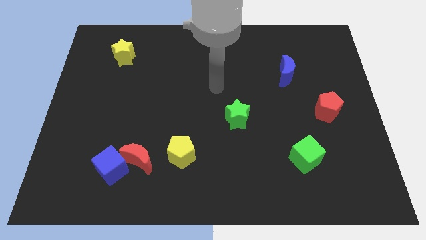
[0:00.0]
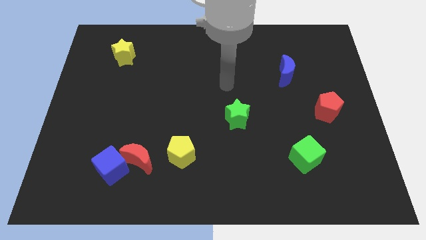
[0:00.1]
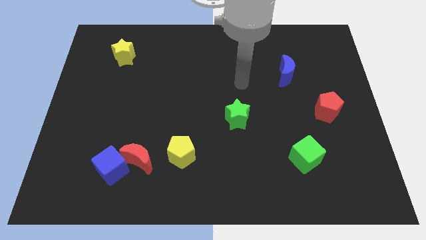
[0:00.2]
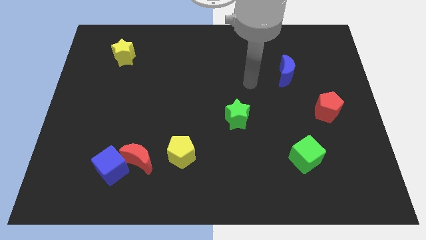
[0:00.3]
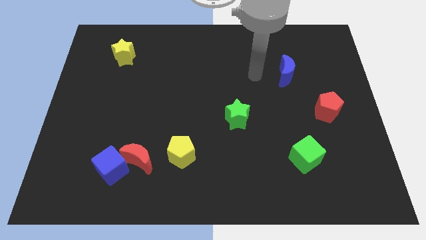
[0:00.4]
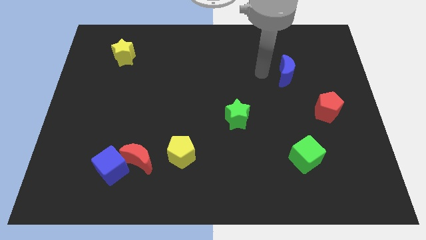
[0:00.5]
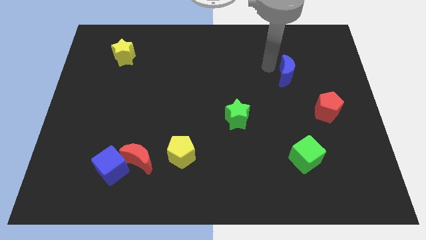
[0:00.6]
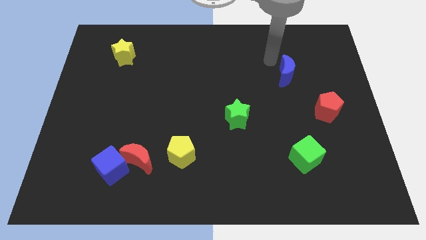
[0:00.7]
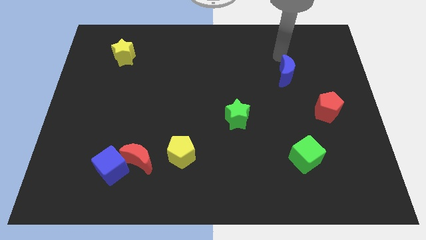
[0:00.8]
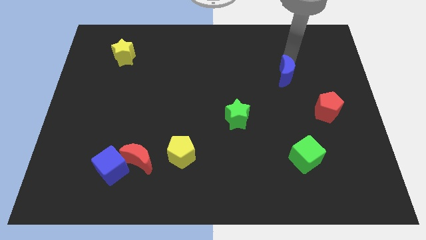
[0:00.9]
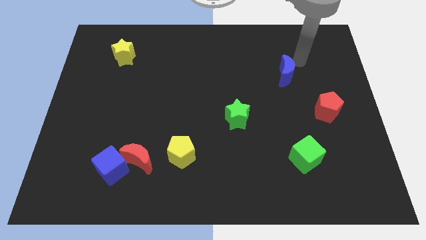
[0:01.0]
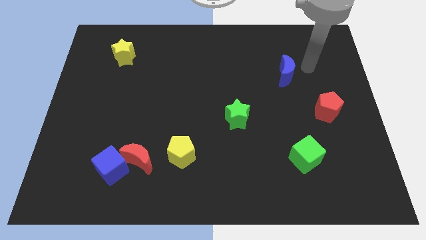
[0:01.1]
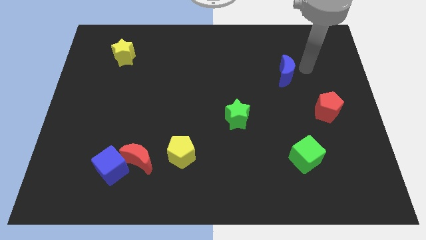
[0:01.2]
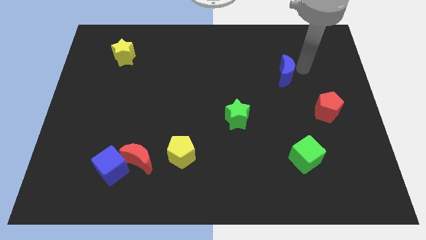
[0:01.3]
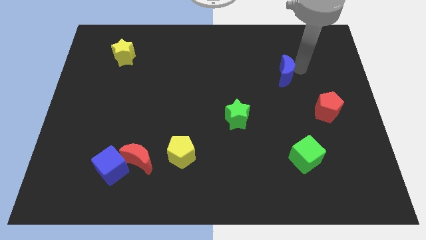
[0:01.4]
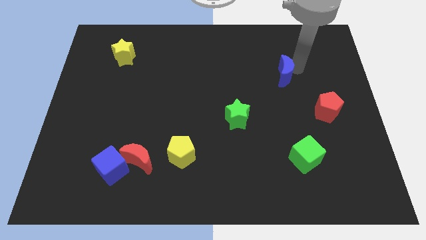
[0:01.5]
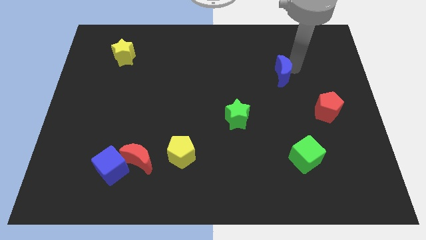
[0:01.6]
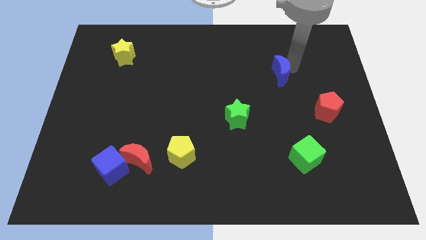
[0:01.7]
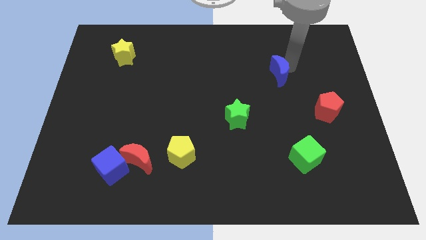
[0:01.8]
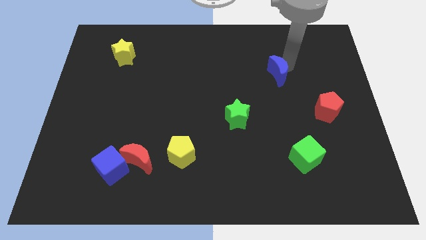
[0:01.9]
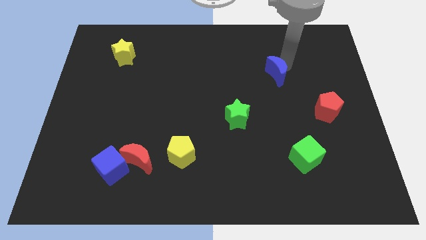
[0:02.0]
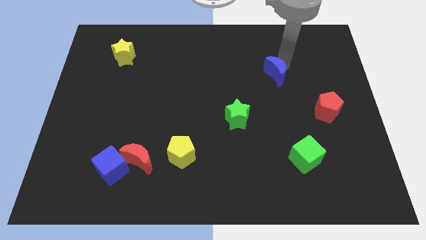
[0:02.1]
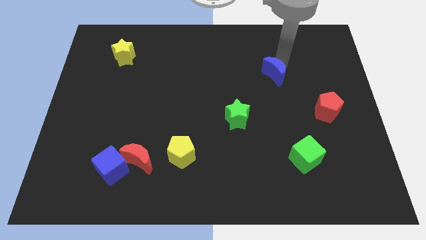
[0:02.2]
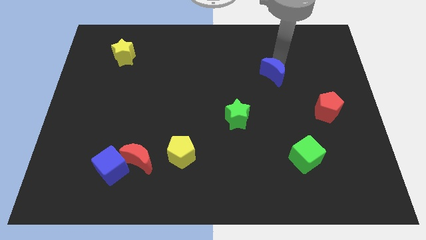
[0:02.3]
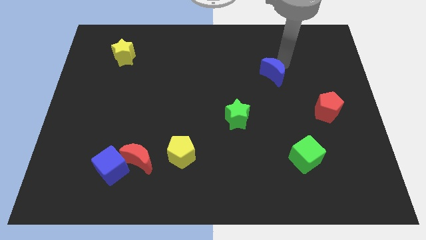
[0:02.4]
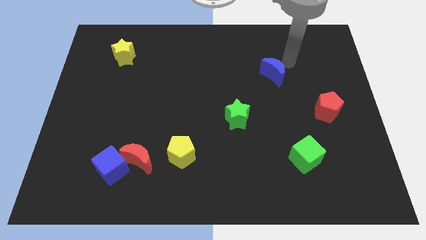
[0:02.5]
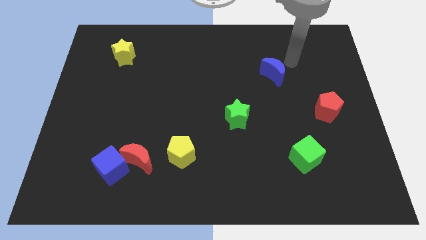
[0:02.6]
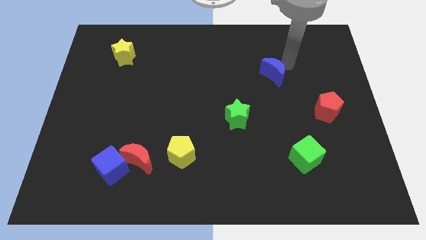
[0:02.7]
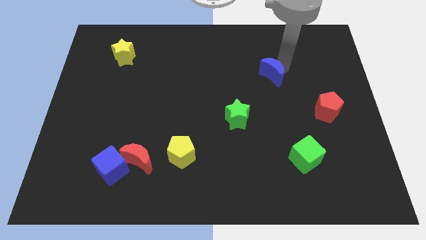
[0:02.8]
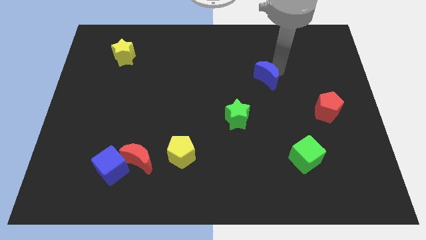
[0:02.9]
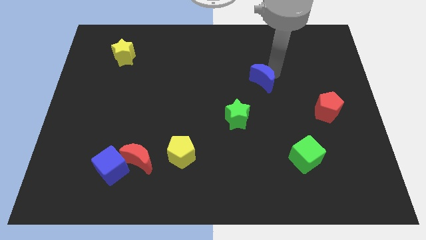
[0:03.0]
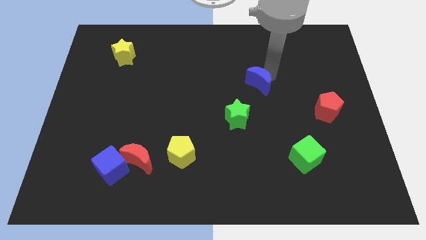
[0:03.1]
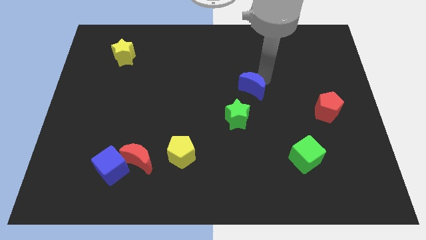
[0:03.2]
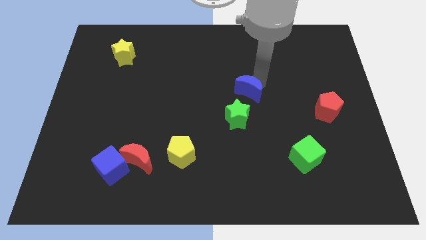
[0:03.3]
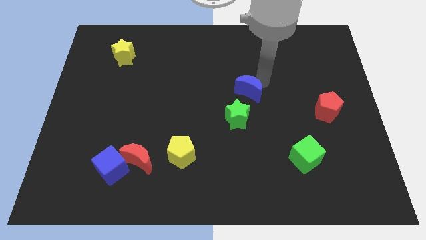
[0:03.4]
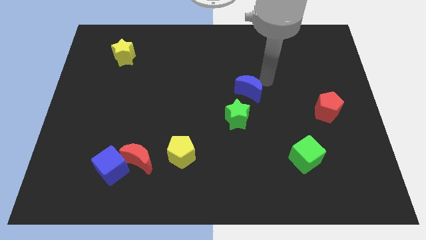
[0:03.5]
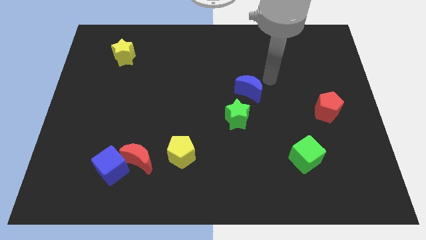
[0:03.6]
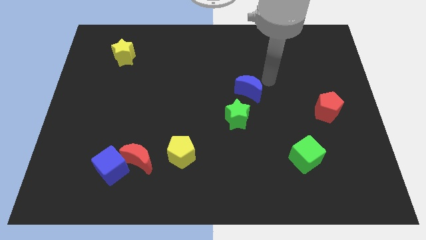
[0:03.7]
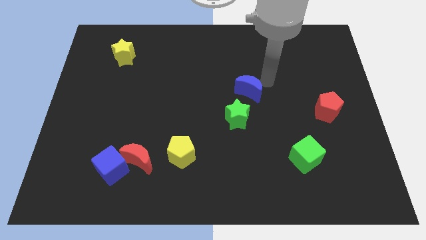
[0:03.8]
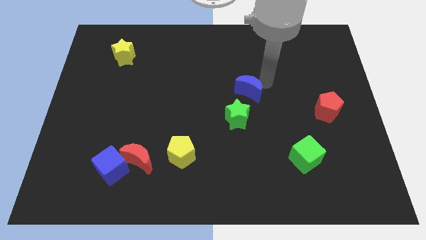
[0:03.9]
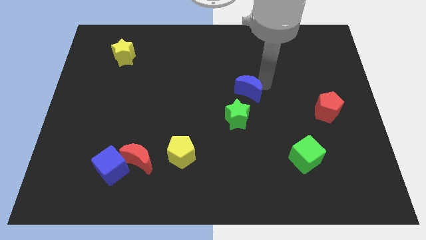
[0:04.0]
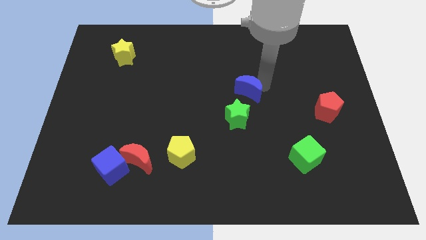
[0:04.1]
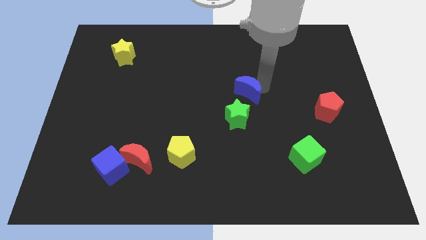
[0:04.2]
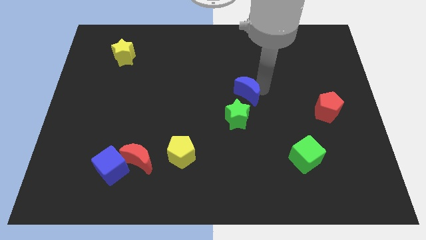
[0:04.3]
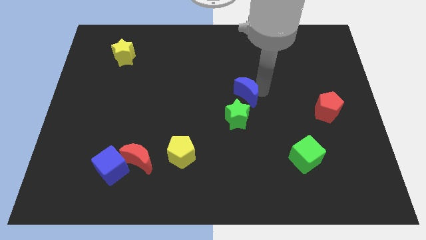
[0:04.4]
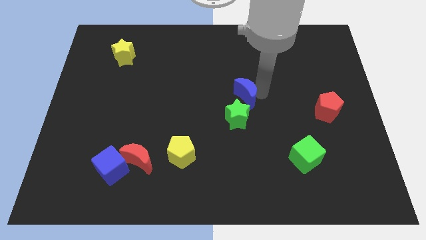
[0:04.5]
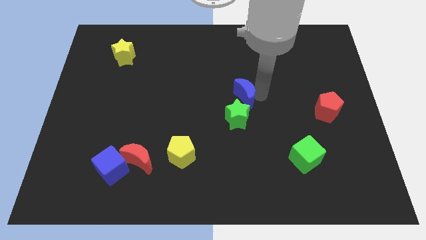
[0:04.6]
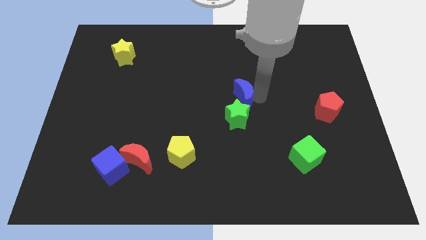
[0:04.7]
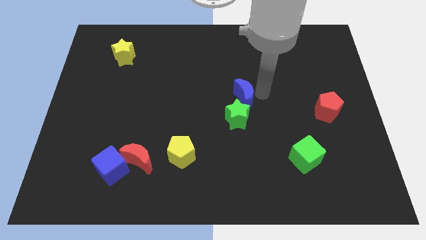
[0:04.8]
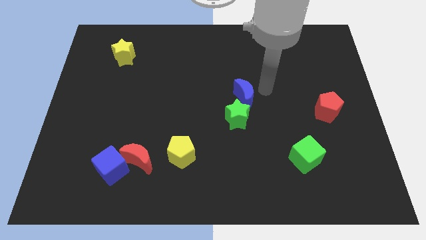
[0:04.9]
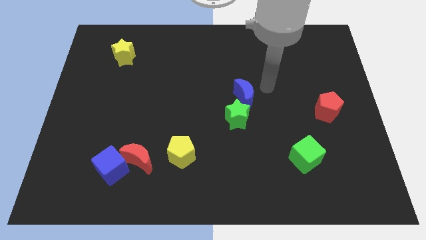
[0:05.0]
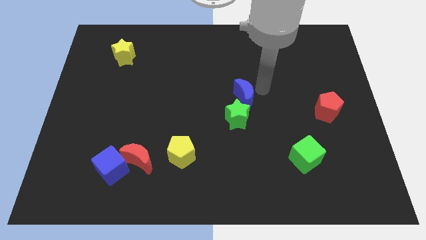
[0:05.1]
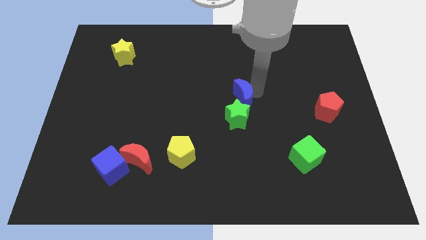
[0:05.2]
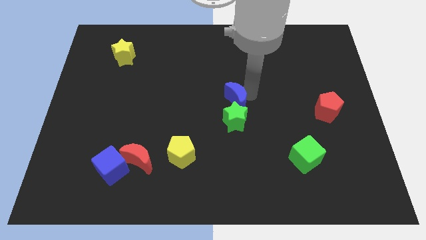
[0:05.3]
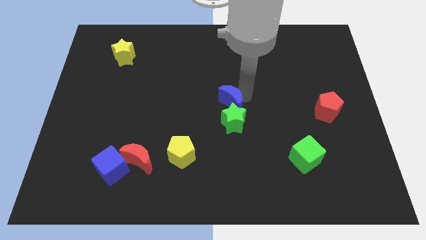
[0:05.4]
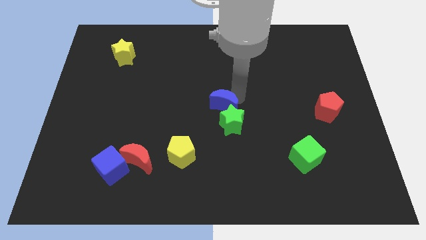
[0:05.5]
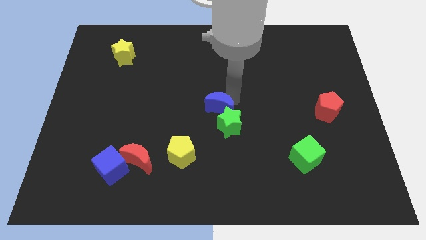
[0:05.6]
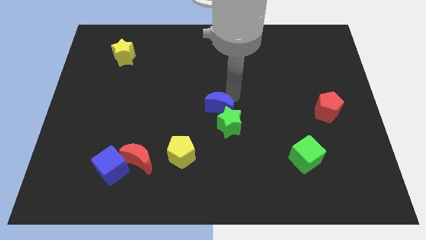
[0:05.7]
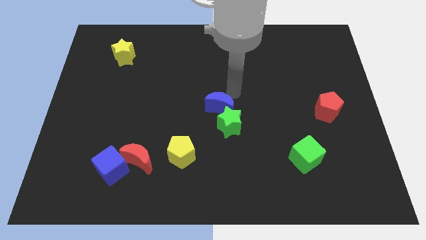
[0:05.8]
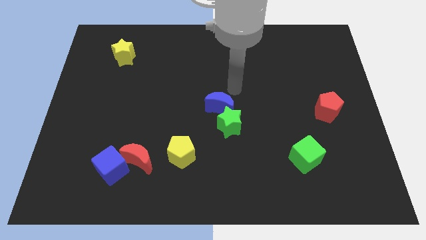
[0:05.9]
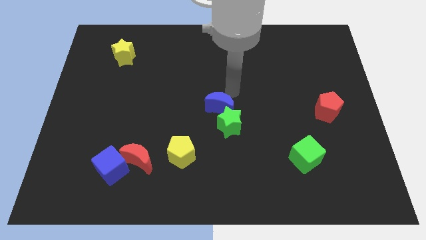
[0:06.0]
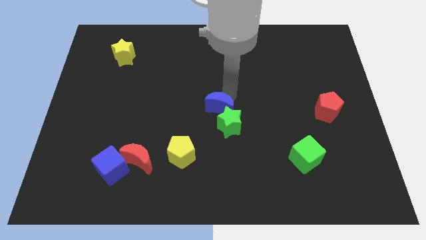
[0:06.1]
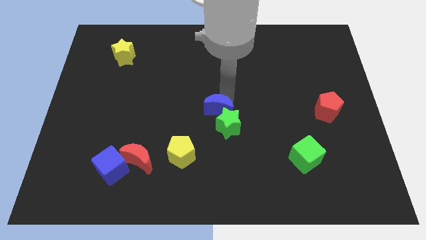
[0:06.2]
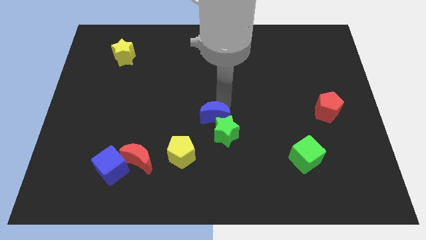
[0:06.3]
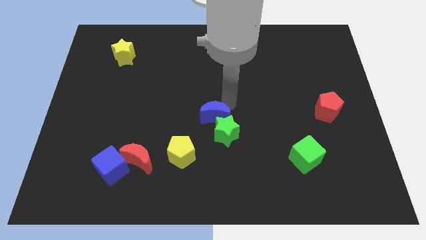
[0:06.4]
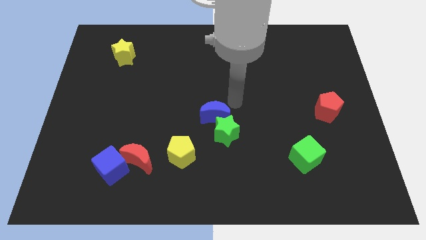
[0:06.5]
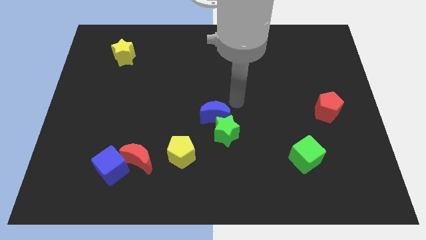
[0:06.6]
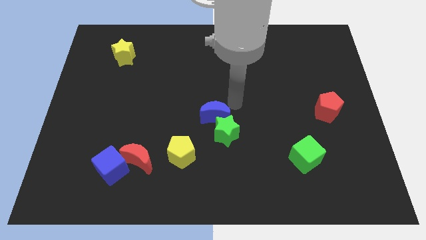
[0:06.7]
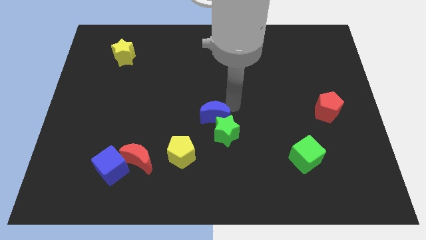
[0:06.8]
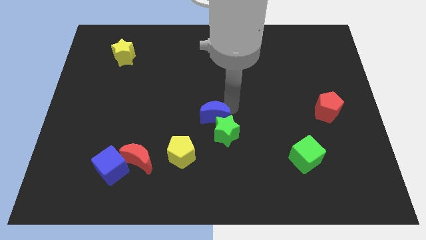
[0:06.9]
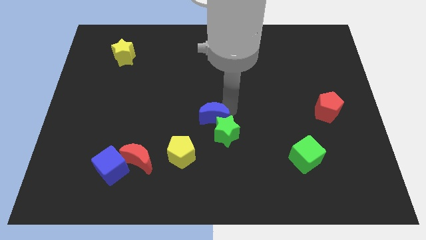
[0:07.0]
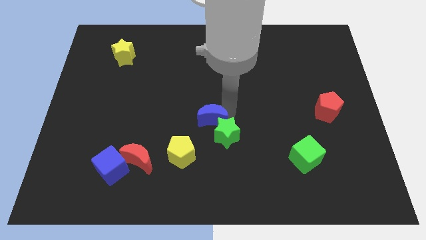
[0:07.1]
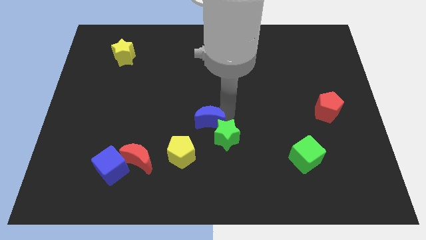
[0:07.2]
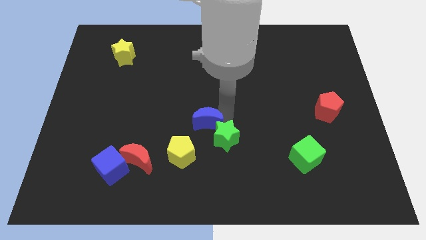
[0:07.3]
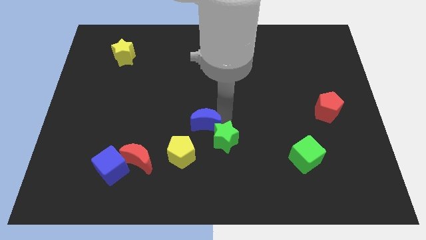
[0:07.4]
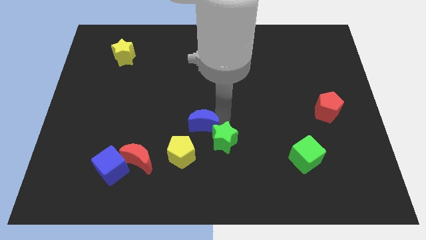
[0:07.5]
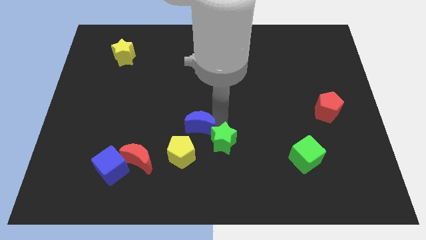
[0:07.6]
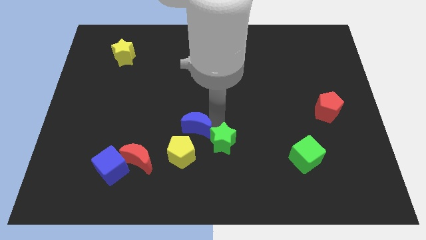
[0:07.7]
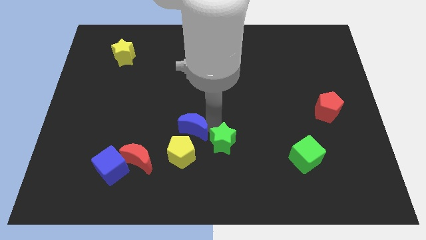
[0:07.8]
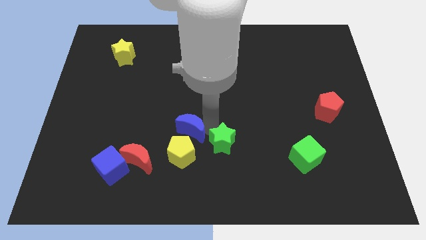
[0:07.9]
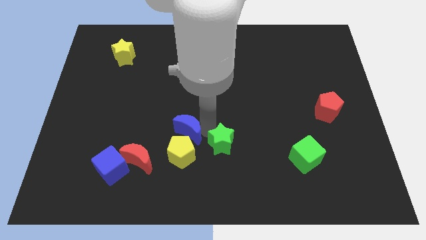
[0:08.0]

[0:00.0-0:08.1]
slide the blue moon to the yellow pentagon
